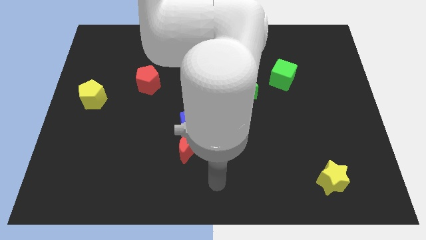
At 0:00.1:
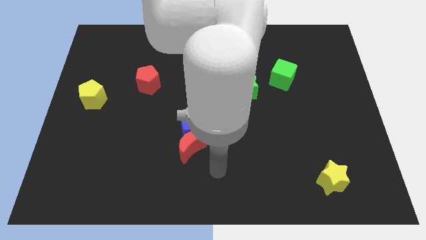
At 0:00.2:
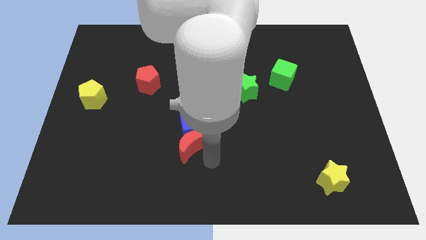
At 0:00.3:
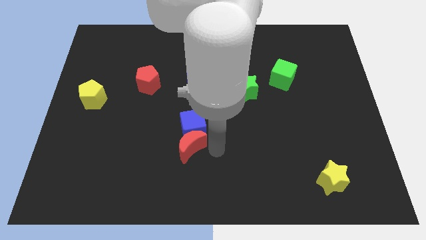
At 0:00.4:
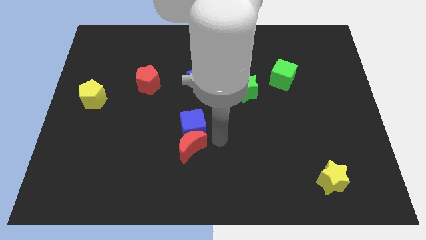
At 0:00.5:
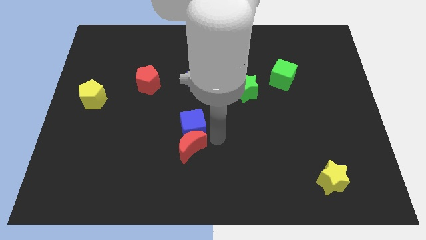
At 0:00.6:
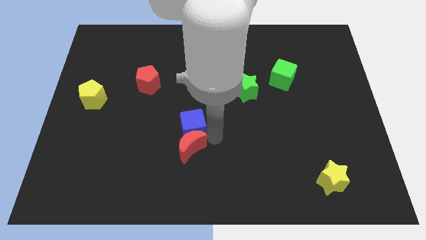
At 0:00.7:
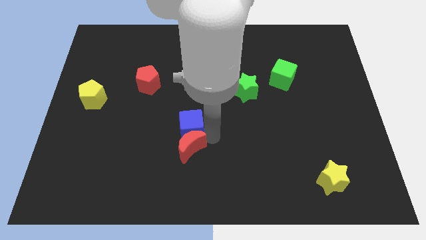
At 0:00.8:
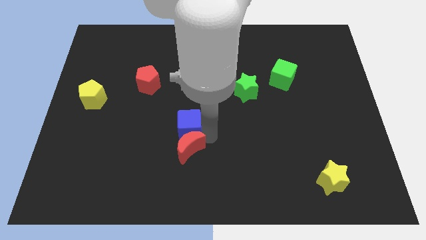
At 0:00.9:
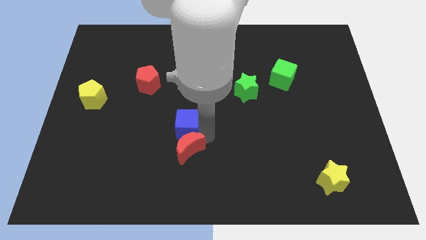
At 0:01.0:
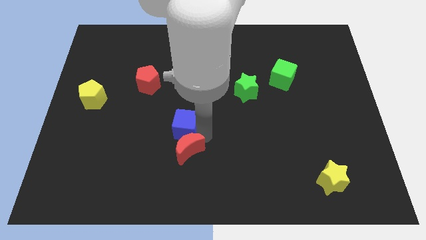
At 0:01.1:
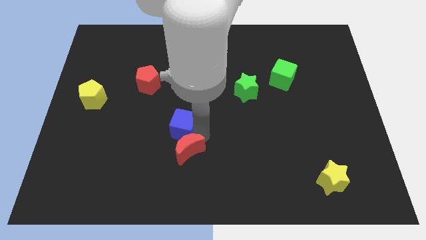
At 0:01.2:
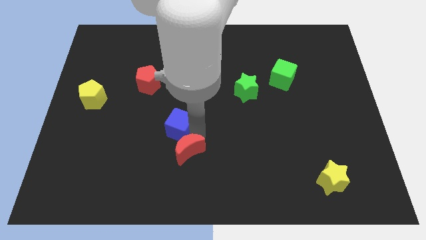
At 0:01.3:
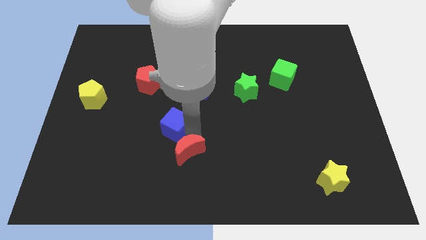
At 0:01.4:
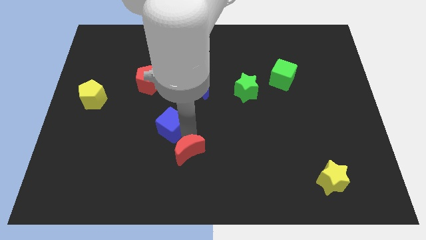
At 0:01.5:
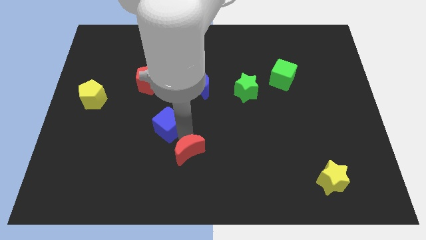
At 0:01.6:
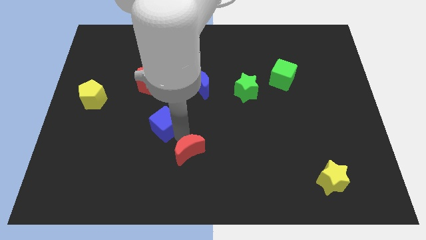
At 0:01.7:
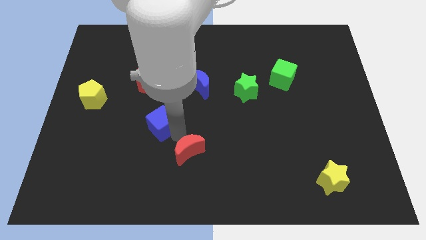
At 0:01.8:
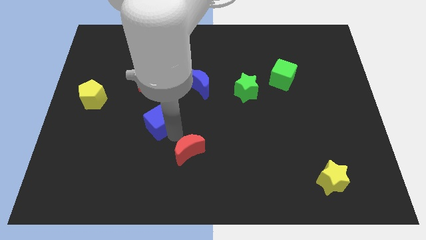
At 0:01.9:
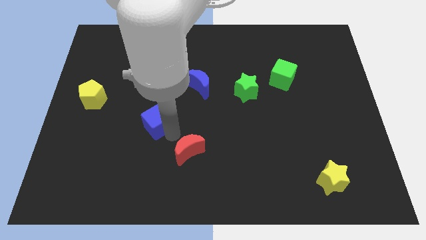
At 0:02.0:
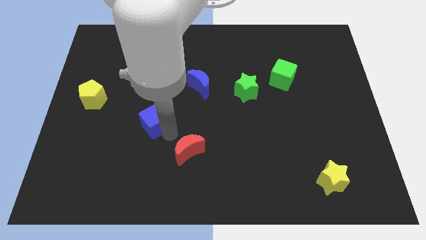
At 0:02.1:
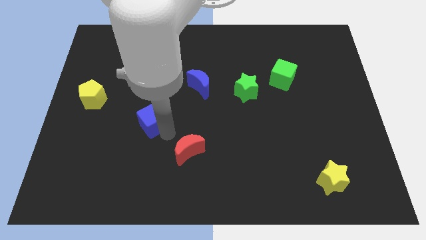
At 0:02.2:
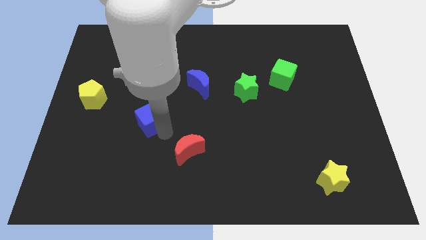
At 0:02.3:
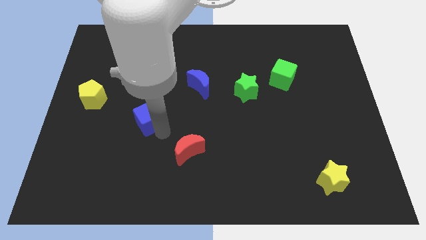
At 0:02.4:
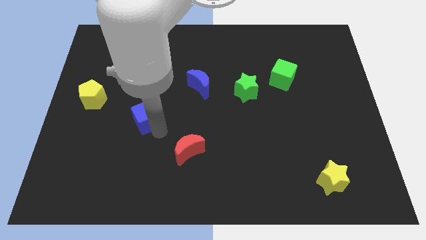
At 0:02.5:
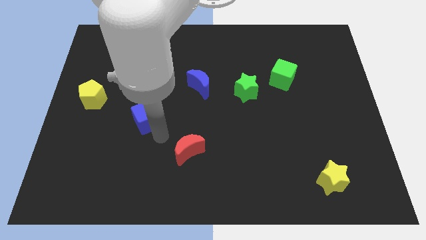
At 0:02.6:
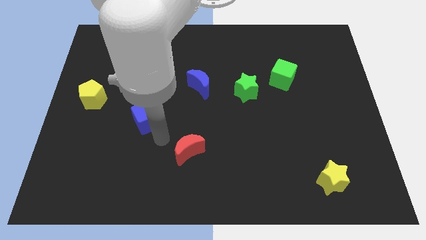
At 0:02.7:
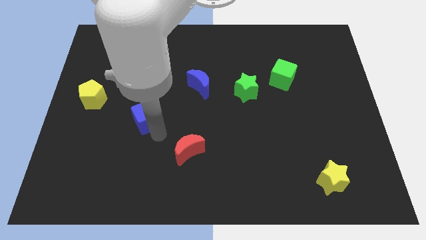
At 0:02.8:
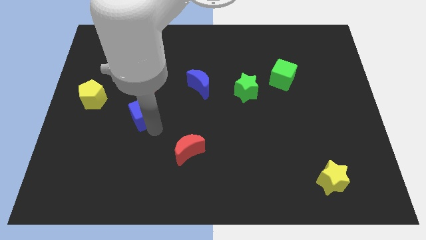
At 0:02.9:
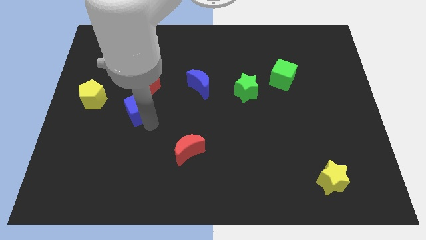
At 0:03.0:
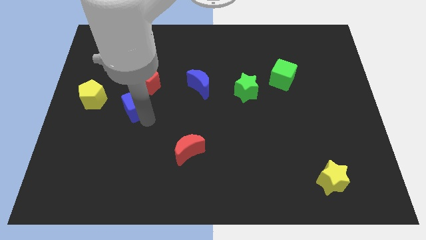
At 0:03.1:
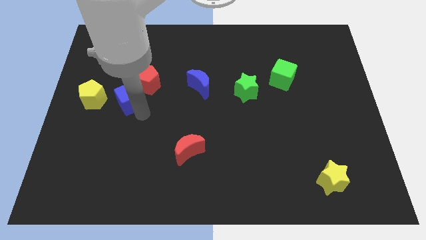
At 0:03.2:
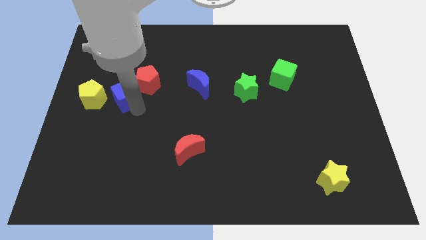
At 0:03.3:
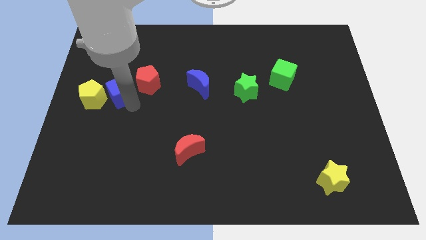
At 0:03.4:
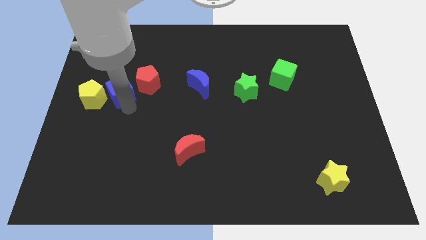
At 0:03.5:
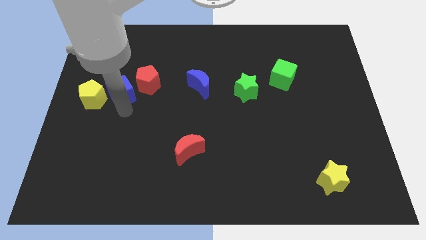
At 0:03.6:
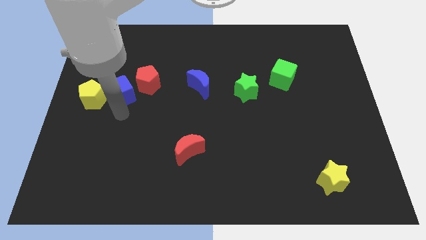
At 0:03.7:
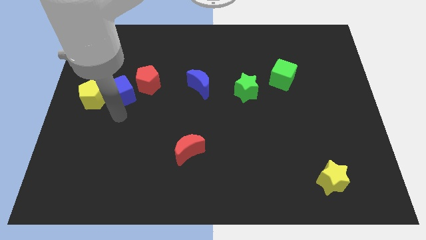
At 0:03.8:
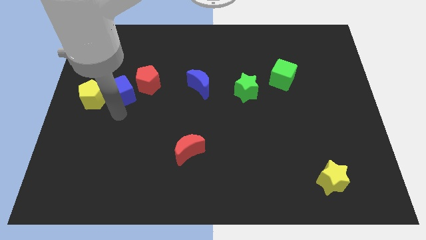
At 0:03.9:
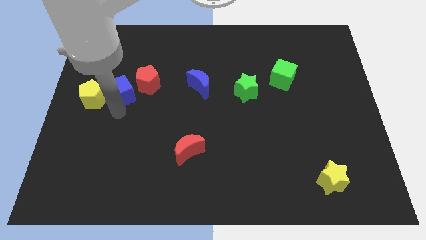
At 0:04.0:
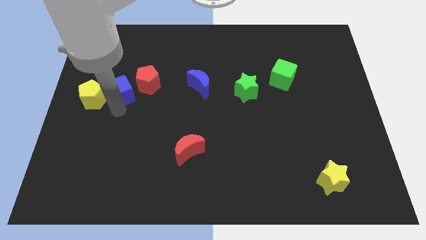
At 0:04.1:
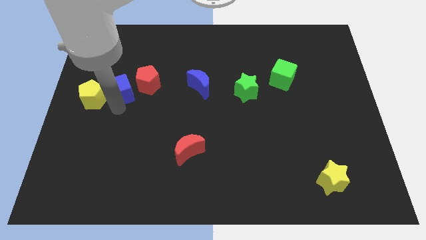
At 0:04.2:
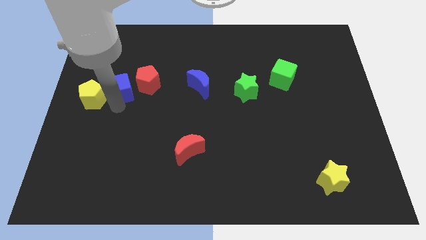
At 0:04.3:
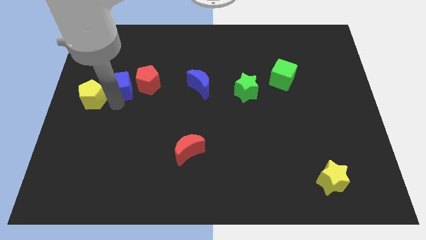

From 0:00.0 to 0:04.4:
move the blue cube upwards and to the left

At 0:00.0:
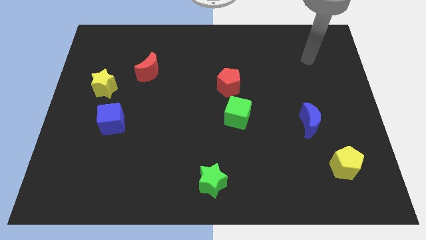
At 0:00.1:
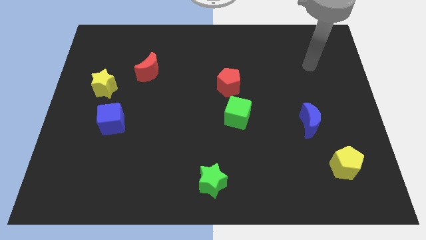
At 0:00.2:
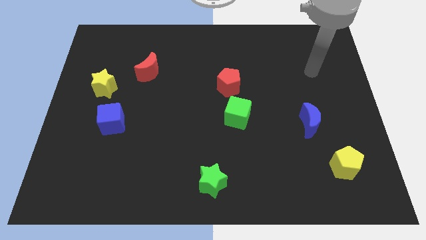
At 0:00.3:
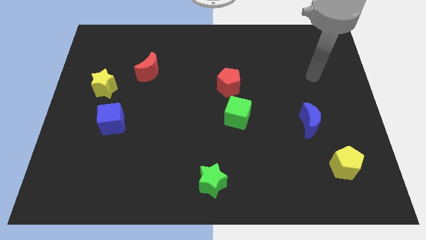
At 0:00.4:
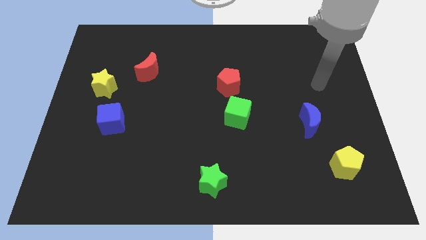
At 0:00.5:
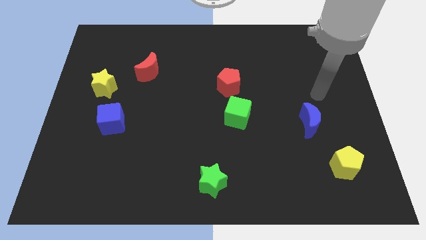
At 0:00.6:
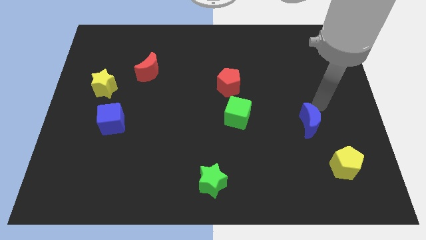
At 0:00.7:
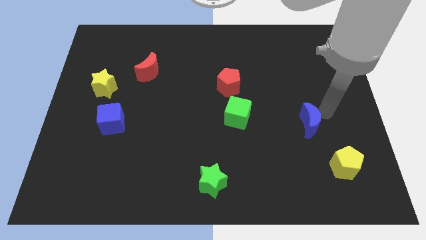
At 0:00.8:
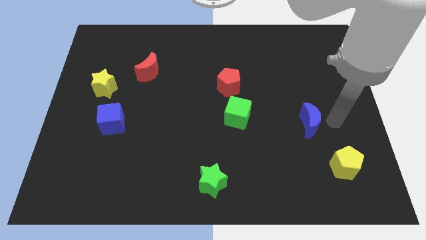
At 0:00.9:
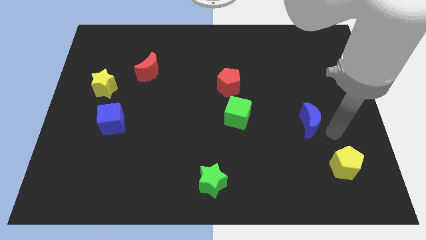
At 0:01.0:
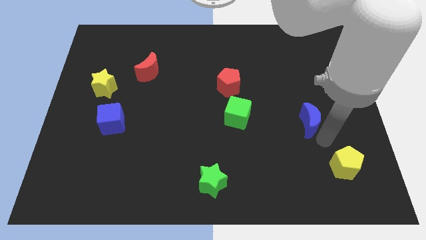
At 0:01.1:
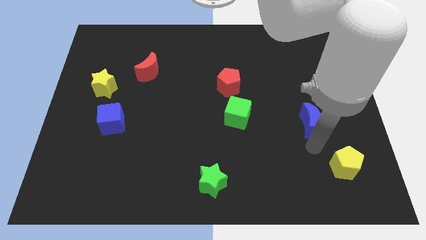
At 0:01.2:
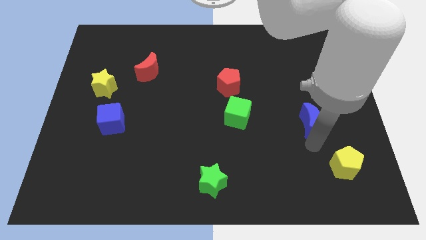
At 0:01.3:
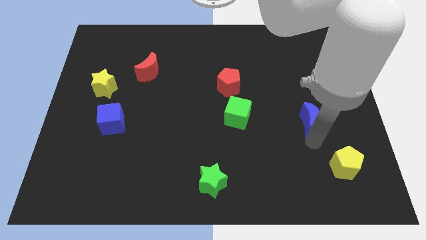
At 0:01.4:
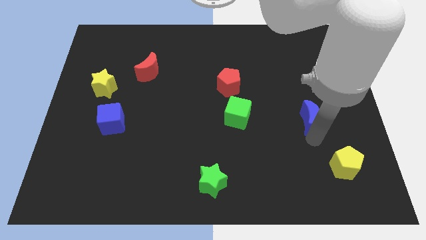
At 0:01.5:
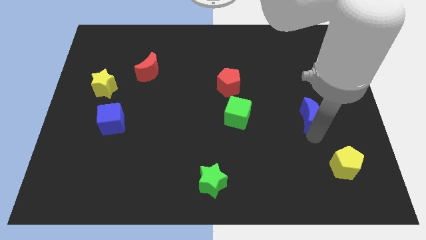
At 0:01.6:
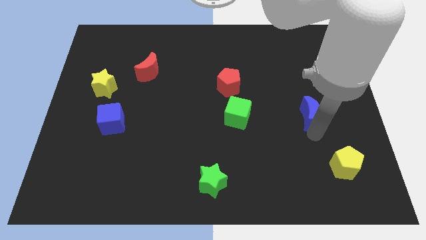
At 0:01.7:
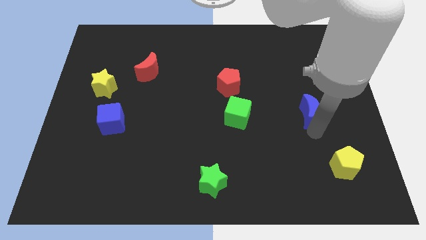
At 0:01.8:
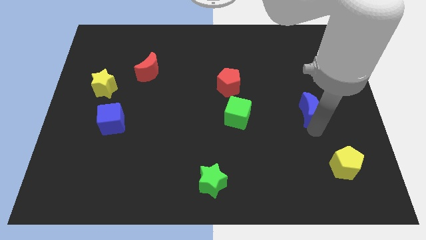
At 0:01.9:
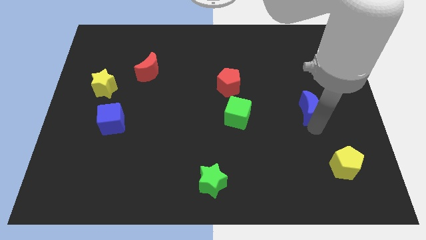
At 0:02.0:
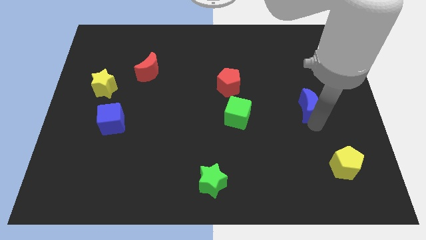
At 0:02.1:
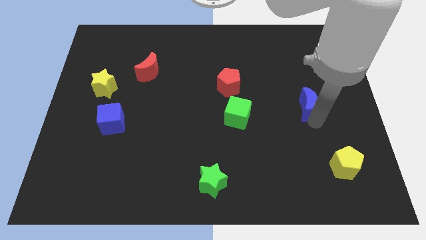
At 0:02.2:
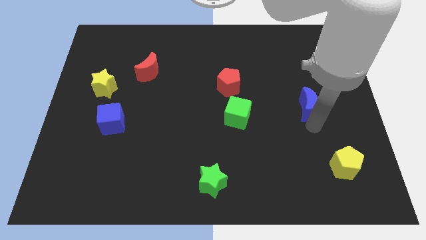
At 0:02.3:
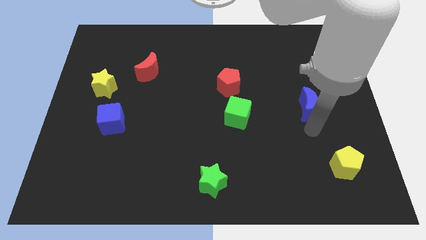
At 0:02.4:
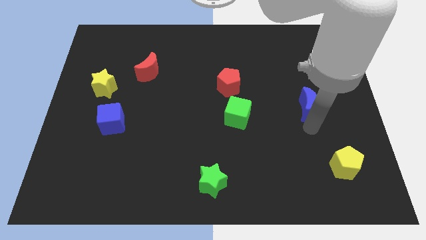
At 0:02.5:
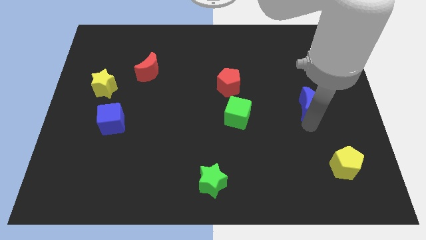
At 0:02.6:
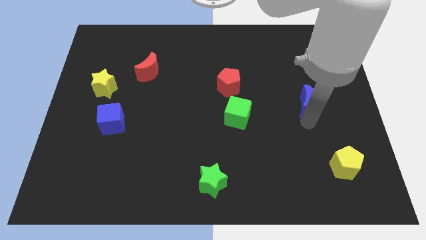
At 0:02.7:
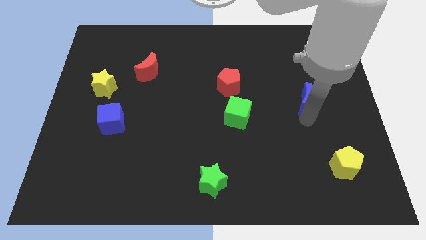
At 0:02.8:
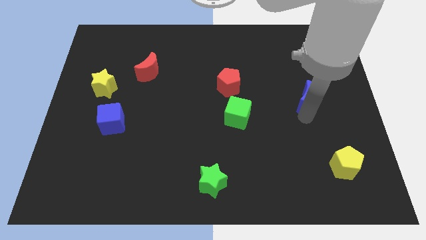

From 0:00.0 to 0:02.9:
push the blue moon a bit upwards

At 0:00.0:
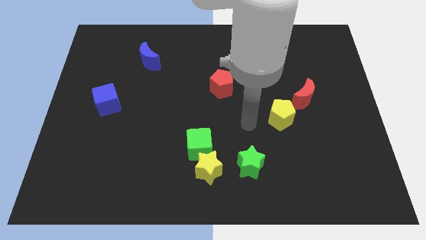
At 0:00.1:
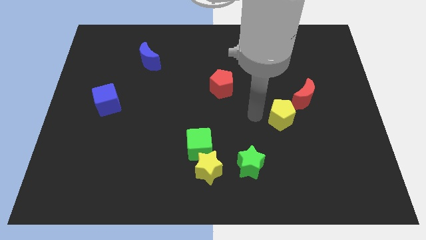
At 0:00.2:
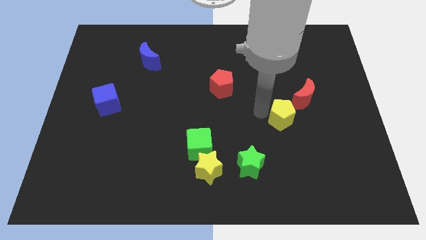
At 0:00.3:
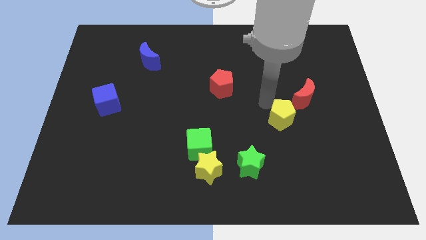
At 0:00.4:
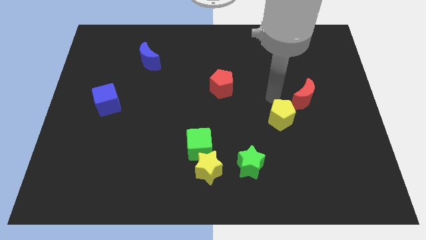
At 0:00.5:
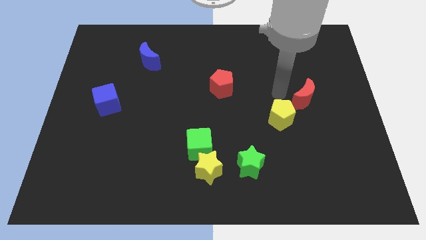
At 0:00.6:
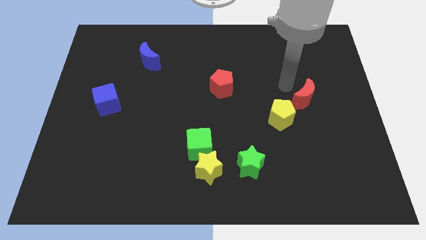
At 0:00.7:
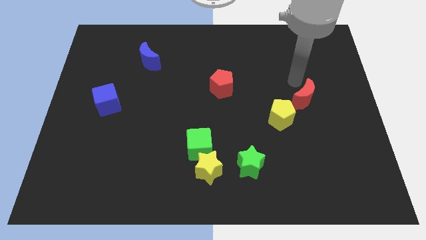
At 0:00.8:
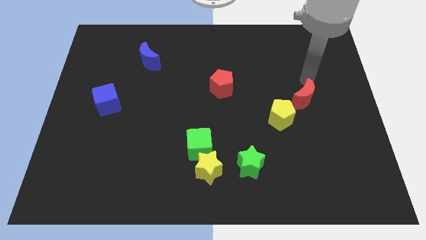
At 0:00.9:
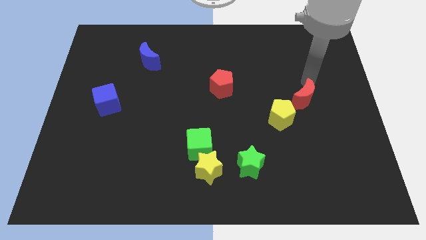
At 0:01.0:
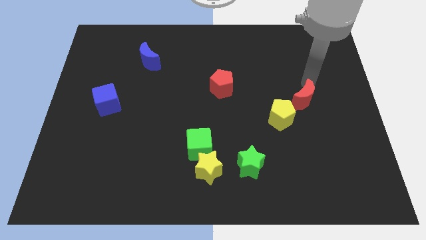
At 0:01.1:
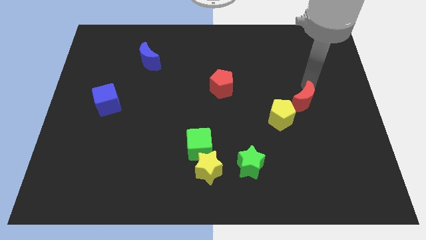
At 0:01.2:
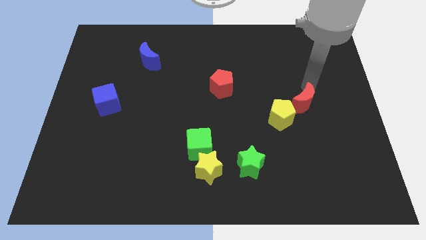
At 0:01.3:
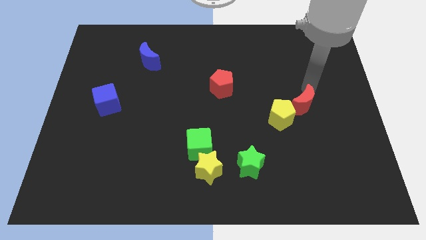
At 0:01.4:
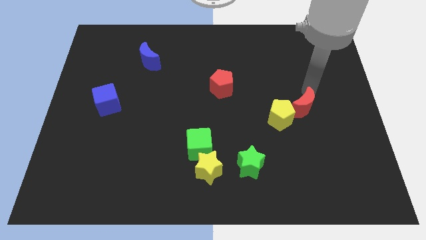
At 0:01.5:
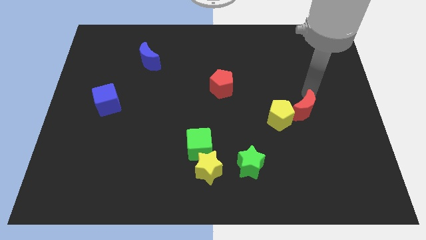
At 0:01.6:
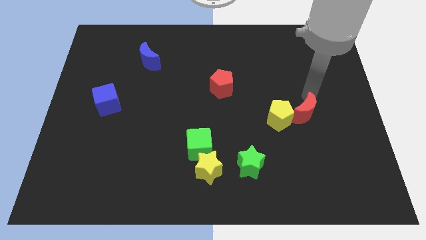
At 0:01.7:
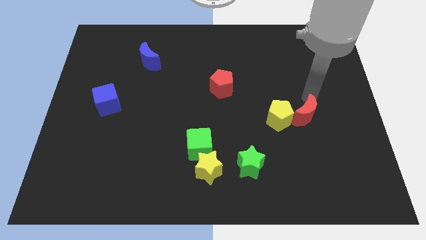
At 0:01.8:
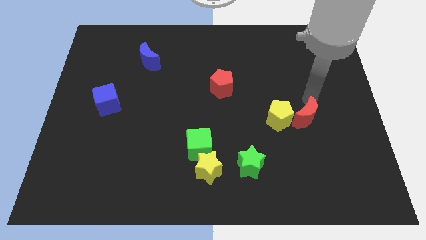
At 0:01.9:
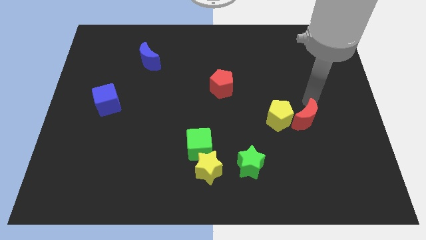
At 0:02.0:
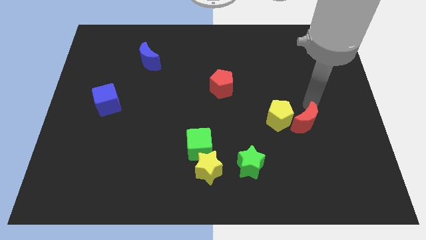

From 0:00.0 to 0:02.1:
push the red moon a little bit down
